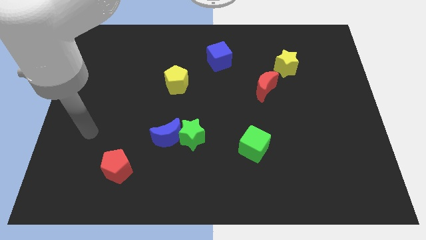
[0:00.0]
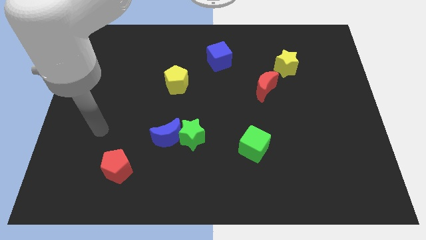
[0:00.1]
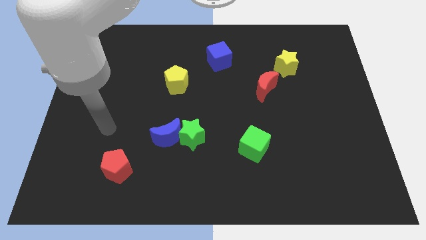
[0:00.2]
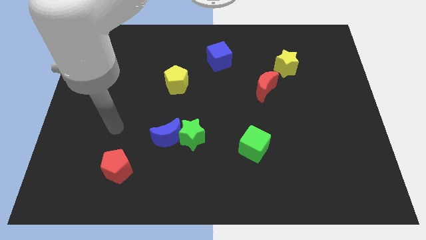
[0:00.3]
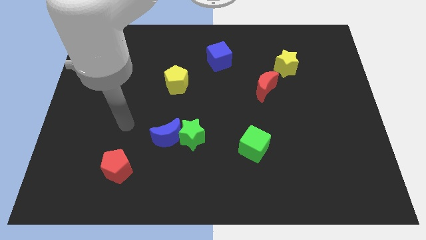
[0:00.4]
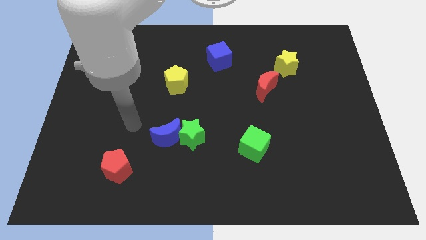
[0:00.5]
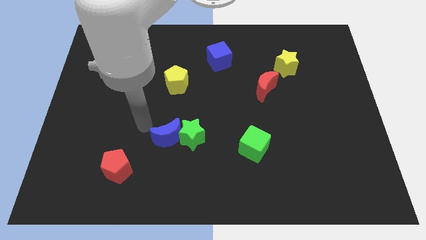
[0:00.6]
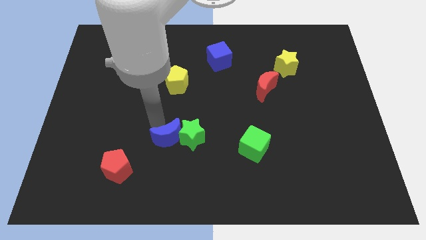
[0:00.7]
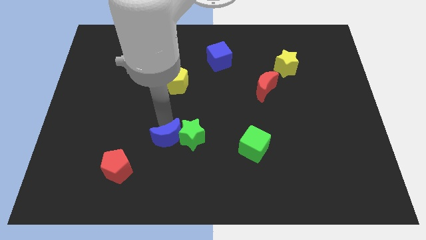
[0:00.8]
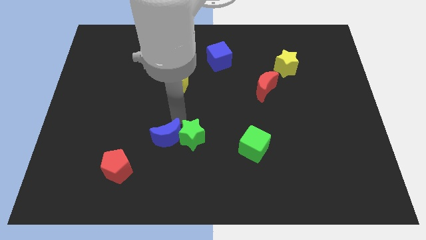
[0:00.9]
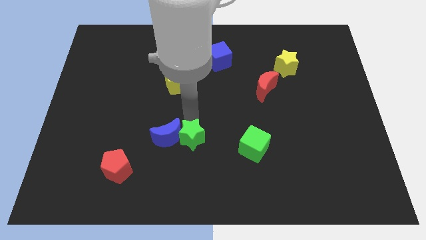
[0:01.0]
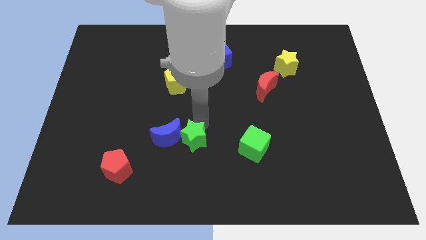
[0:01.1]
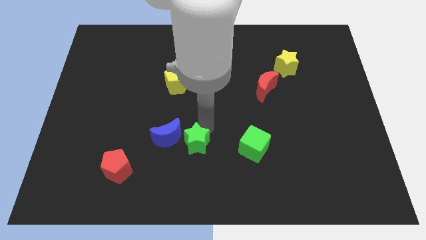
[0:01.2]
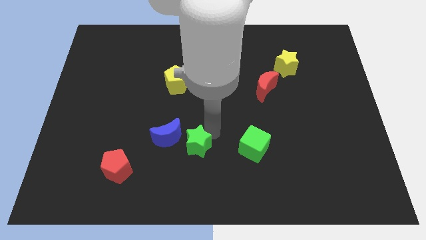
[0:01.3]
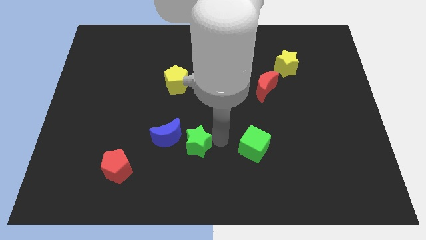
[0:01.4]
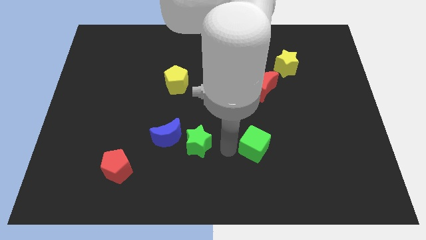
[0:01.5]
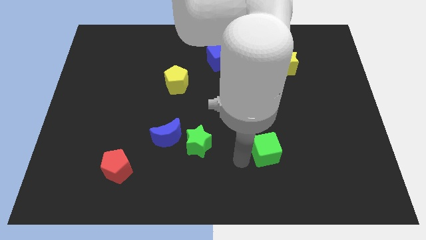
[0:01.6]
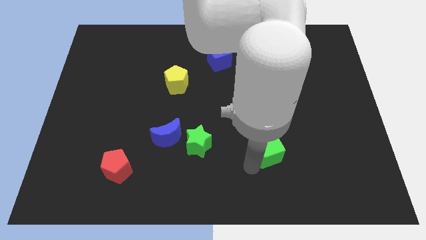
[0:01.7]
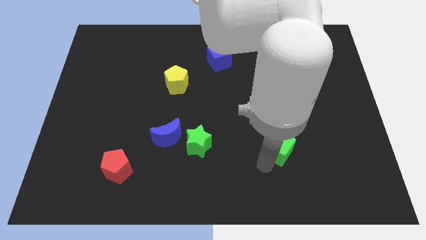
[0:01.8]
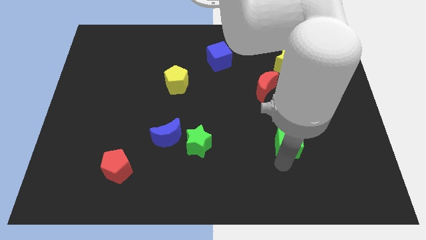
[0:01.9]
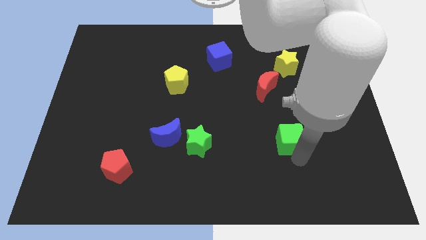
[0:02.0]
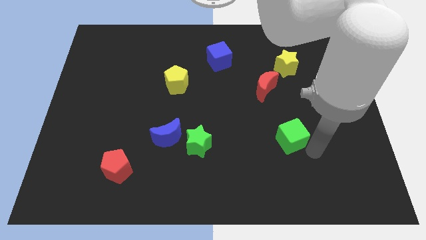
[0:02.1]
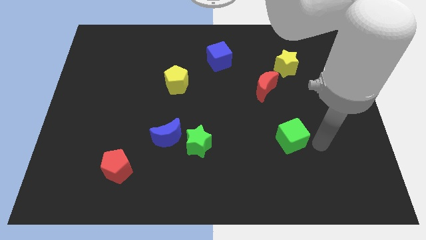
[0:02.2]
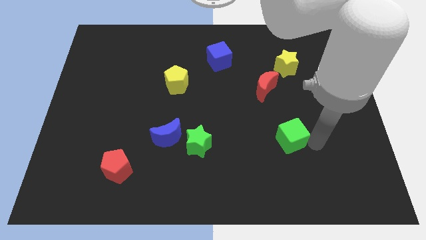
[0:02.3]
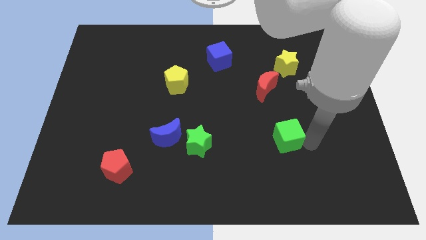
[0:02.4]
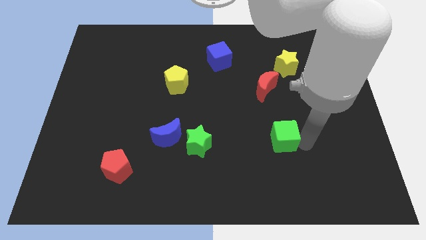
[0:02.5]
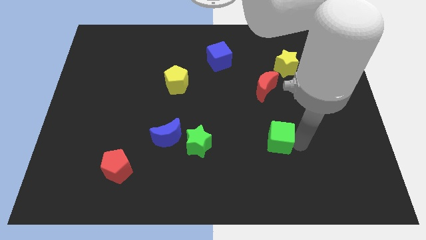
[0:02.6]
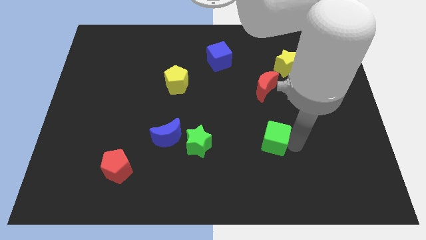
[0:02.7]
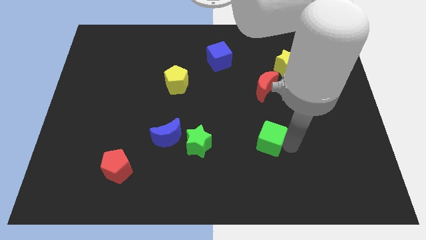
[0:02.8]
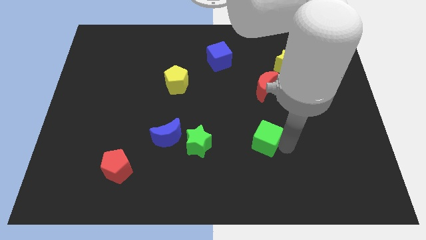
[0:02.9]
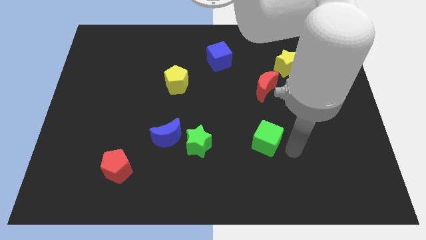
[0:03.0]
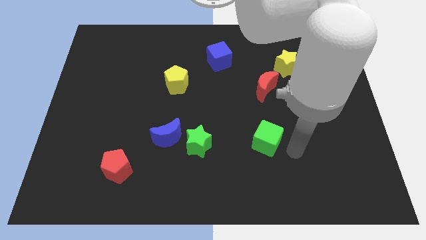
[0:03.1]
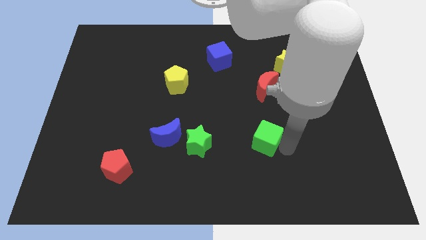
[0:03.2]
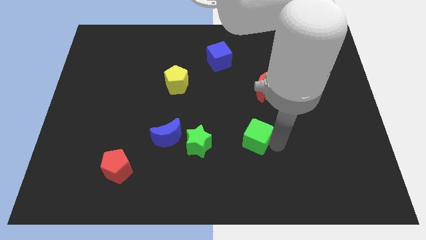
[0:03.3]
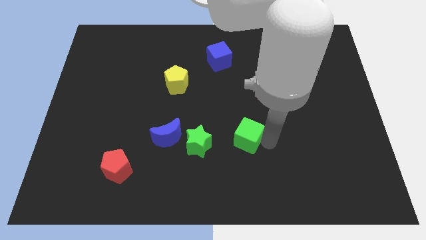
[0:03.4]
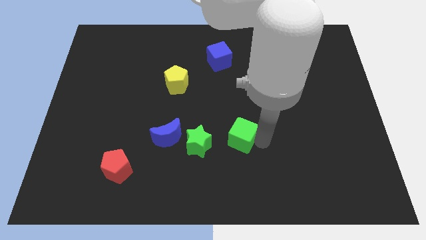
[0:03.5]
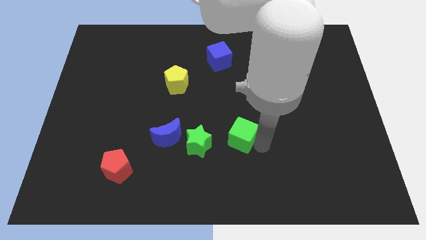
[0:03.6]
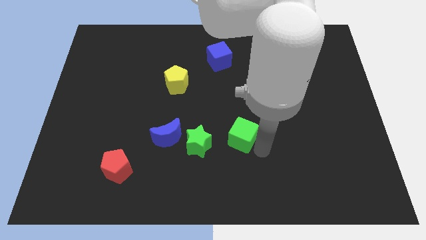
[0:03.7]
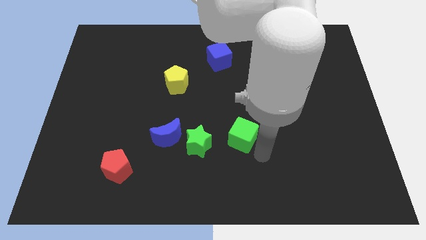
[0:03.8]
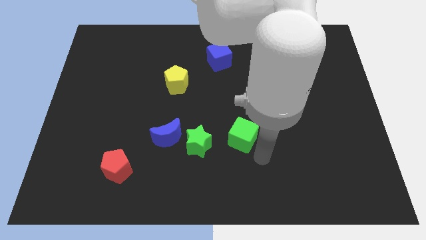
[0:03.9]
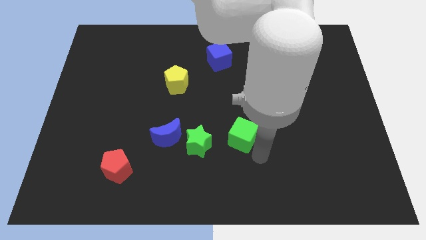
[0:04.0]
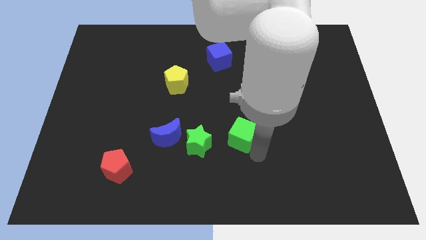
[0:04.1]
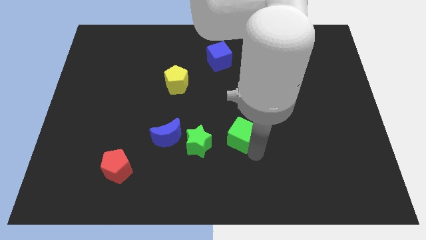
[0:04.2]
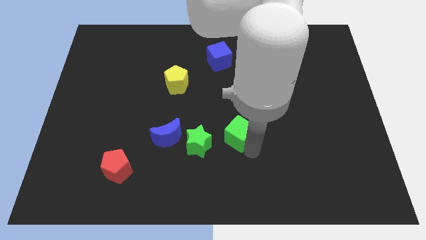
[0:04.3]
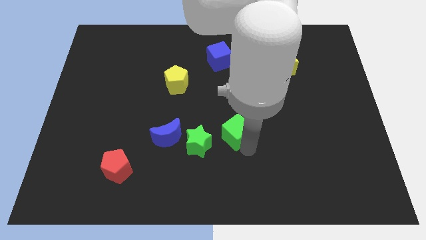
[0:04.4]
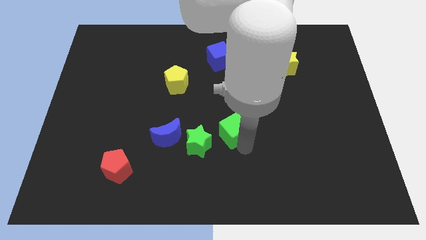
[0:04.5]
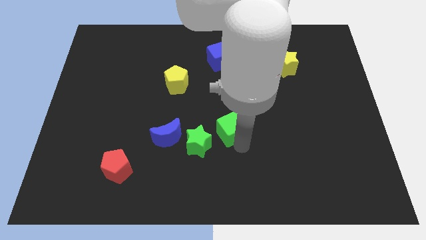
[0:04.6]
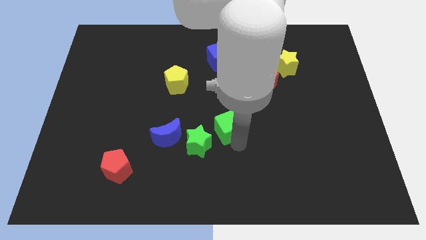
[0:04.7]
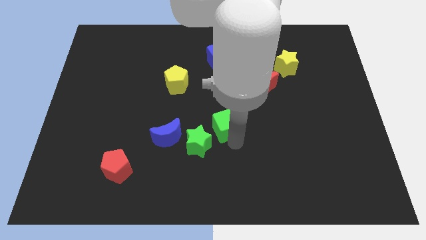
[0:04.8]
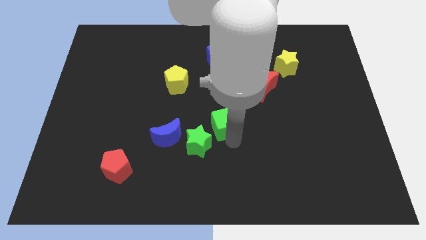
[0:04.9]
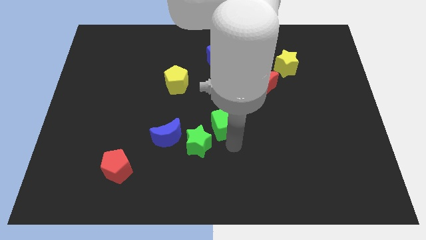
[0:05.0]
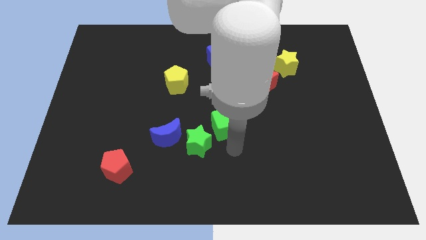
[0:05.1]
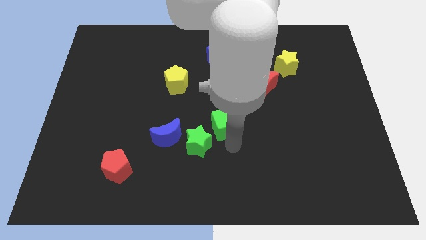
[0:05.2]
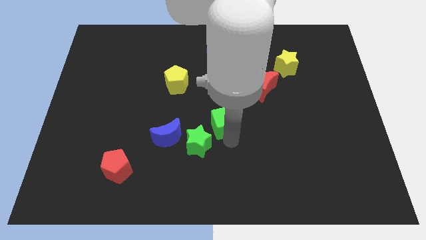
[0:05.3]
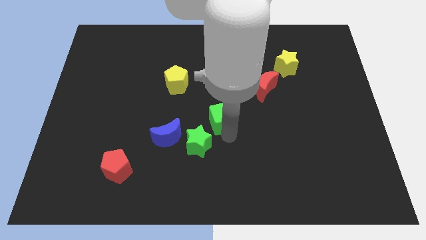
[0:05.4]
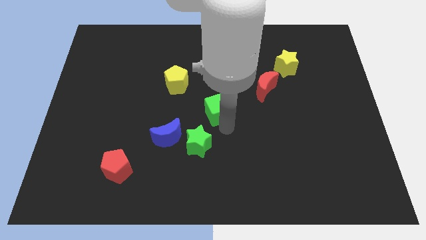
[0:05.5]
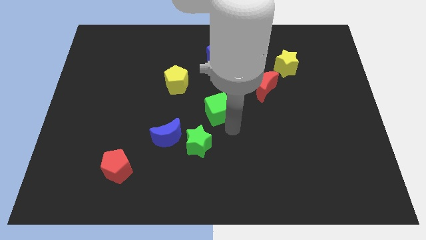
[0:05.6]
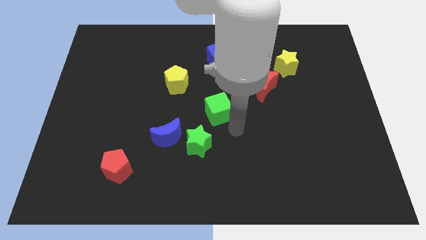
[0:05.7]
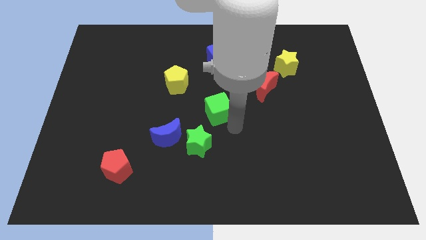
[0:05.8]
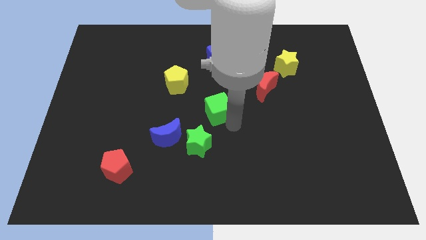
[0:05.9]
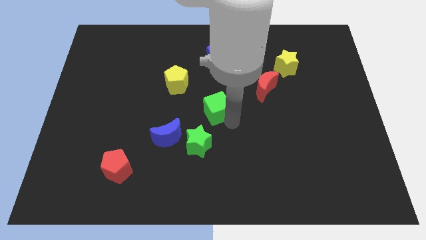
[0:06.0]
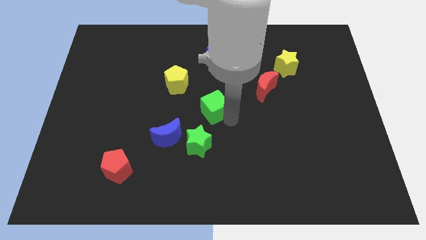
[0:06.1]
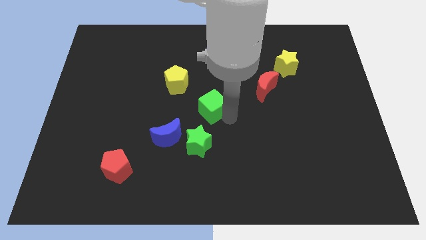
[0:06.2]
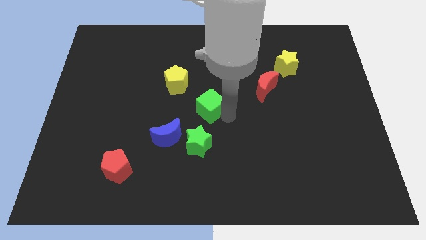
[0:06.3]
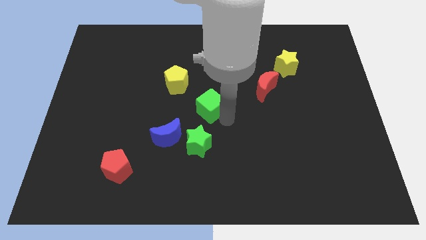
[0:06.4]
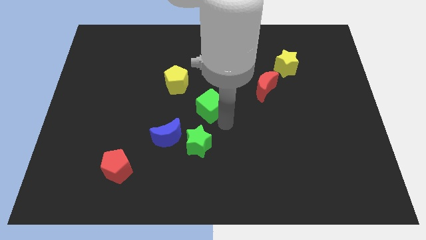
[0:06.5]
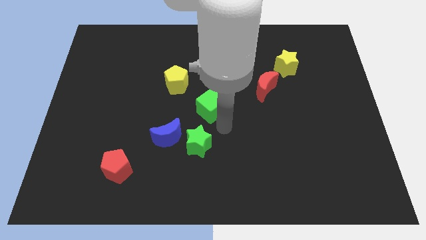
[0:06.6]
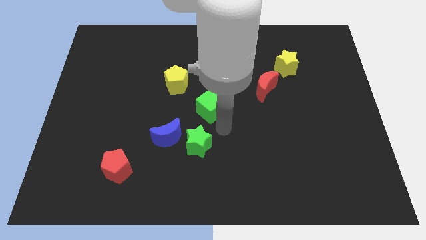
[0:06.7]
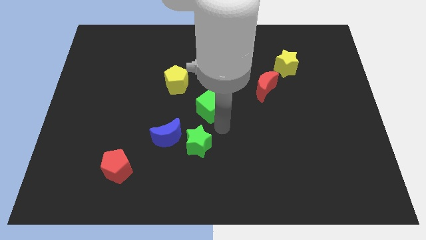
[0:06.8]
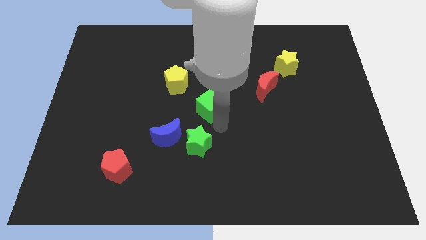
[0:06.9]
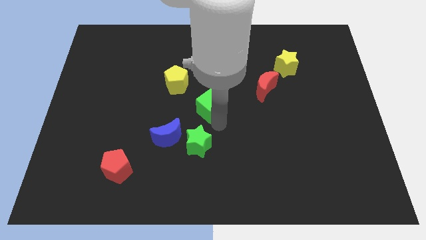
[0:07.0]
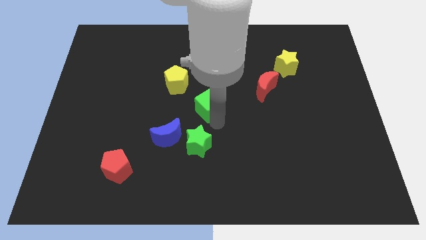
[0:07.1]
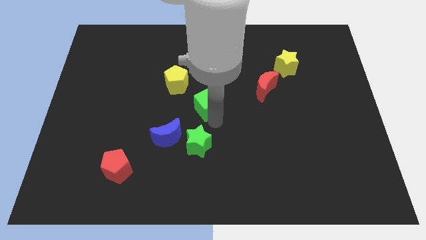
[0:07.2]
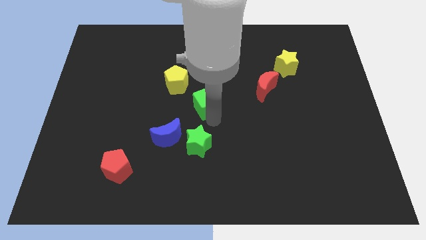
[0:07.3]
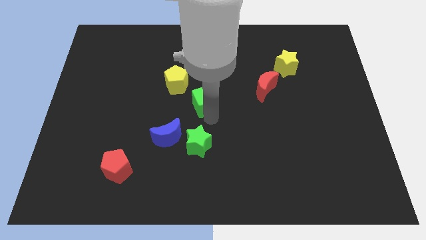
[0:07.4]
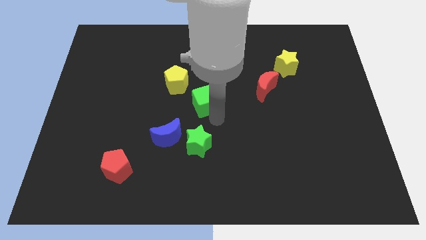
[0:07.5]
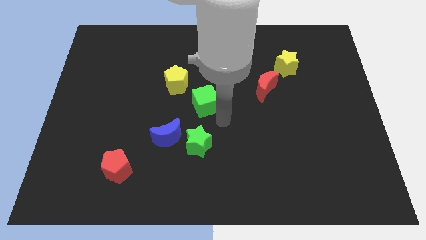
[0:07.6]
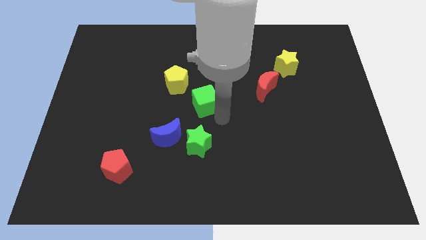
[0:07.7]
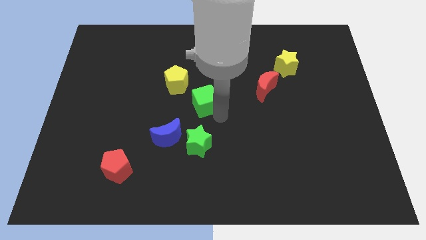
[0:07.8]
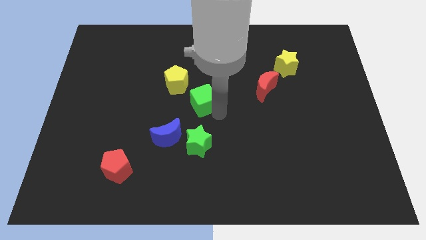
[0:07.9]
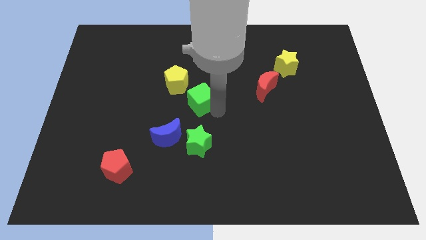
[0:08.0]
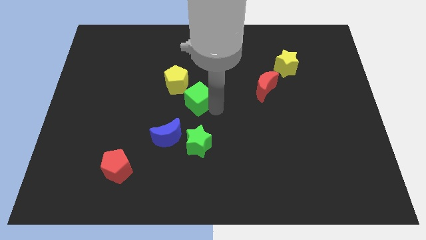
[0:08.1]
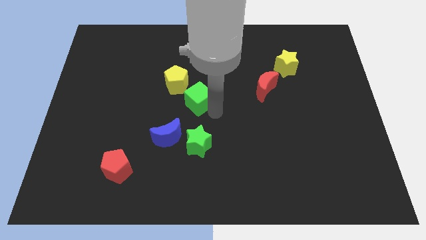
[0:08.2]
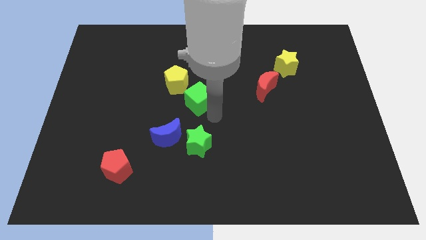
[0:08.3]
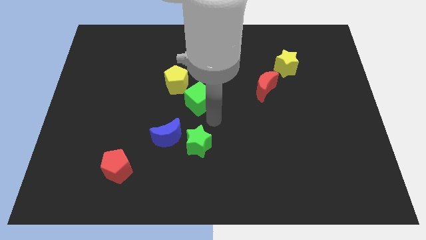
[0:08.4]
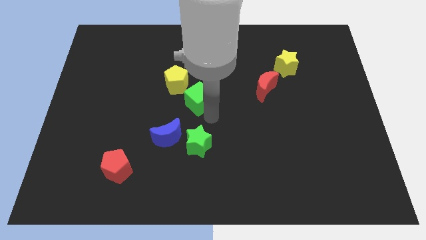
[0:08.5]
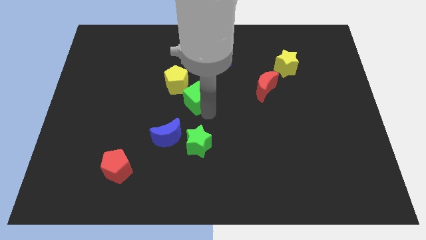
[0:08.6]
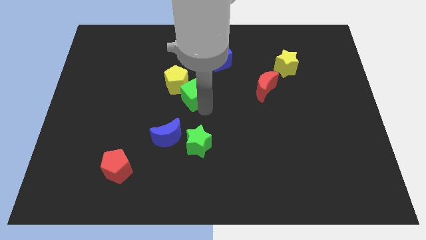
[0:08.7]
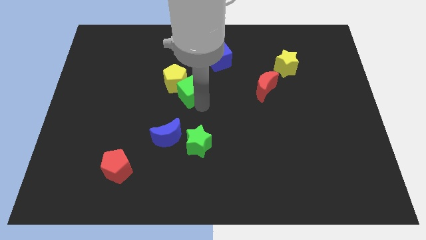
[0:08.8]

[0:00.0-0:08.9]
push the green cube next to the yellow pentagon
